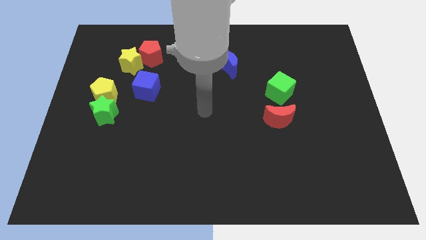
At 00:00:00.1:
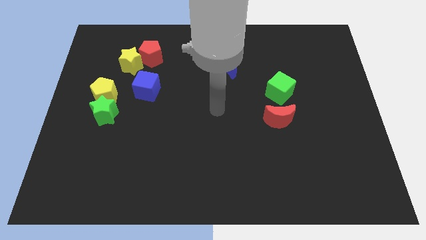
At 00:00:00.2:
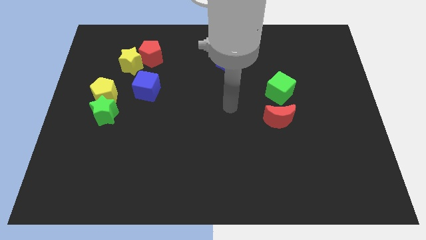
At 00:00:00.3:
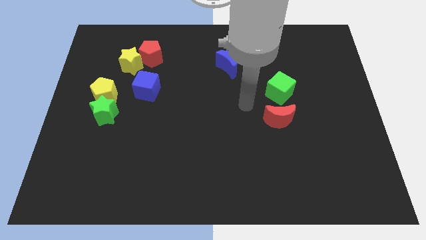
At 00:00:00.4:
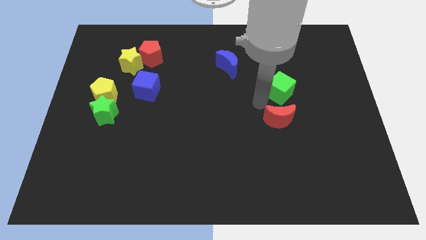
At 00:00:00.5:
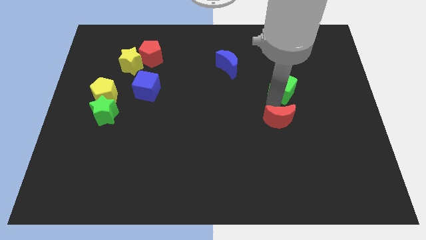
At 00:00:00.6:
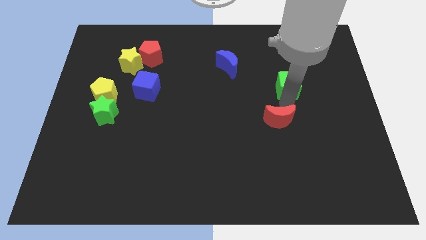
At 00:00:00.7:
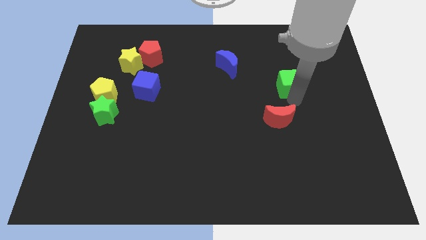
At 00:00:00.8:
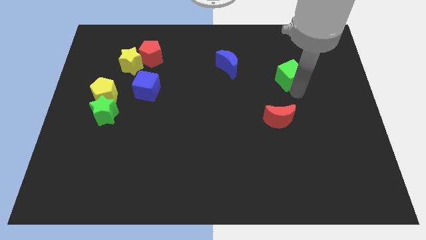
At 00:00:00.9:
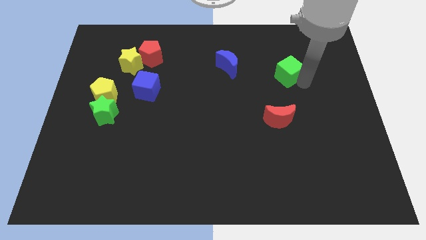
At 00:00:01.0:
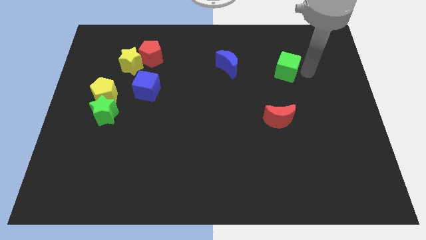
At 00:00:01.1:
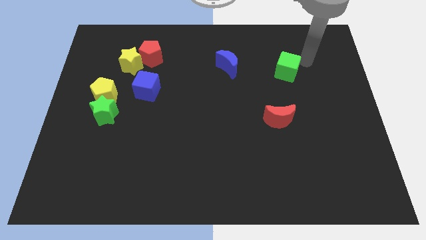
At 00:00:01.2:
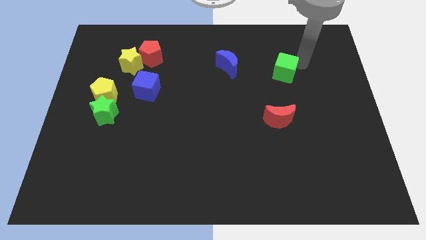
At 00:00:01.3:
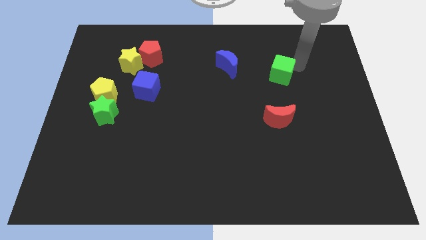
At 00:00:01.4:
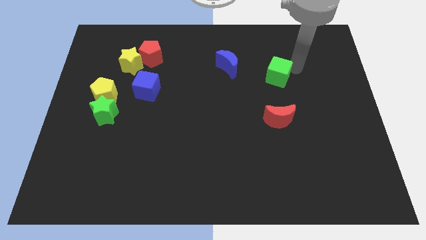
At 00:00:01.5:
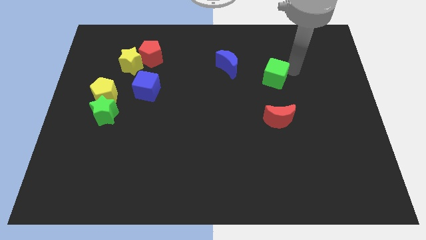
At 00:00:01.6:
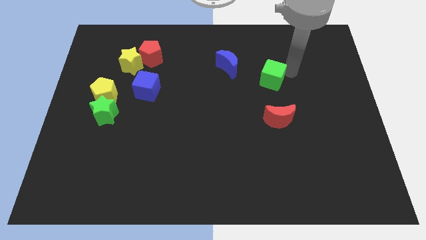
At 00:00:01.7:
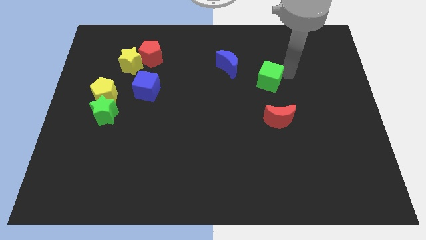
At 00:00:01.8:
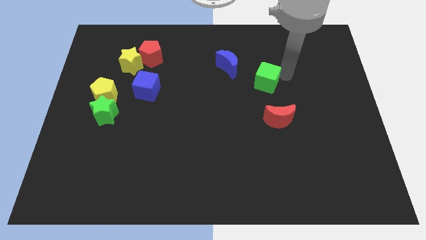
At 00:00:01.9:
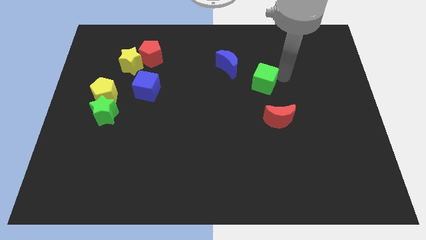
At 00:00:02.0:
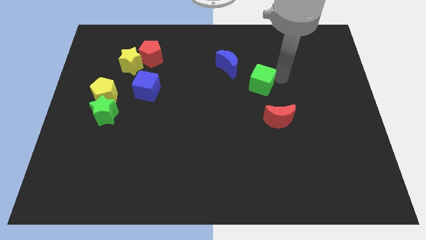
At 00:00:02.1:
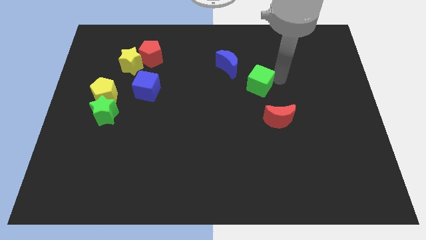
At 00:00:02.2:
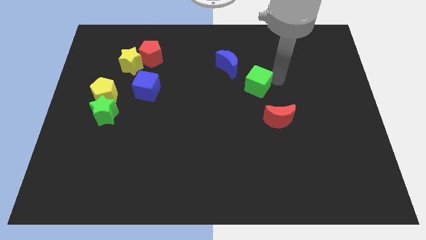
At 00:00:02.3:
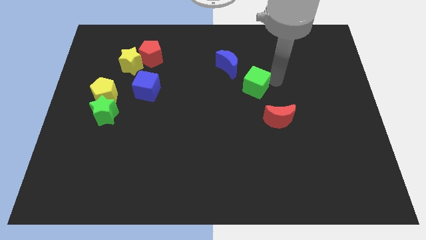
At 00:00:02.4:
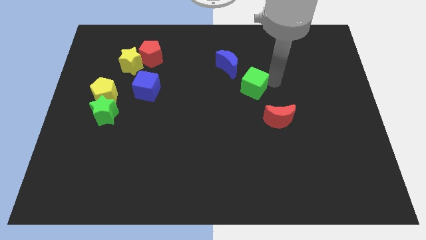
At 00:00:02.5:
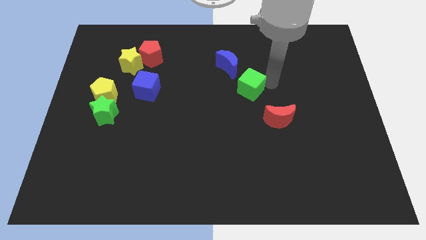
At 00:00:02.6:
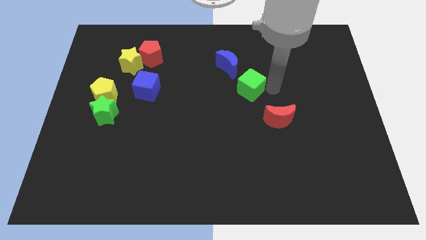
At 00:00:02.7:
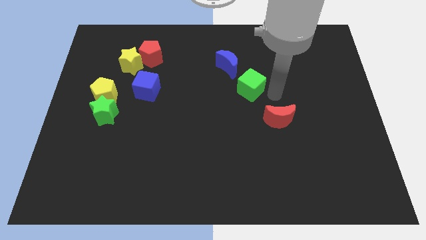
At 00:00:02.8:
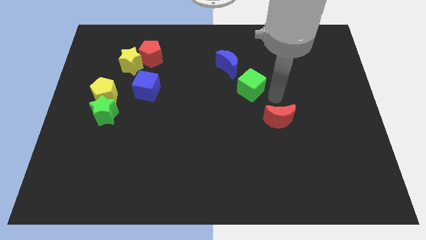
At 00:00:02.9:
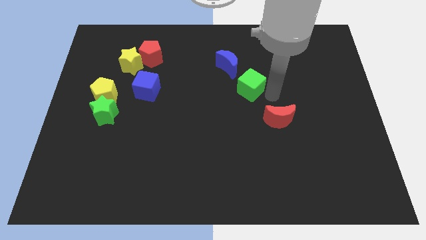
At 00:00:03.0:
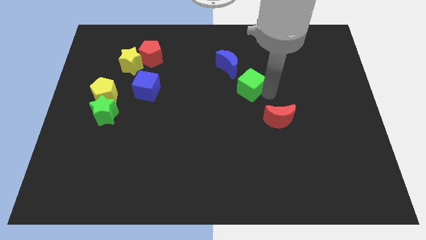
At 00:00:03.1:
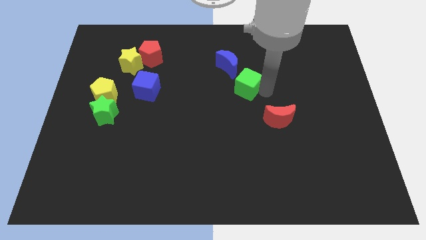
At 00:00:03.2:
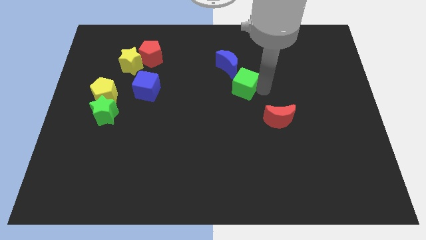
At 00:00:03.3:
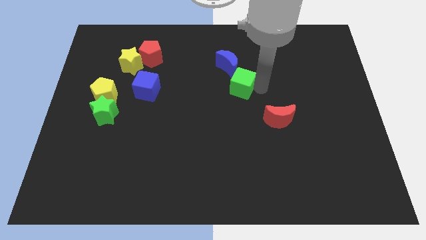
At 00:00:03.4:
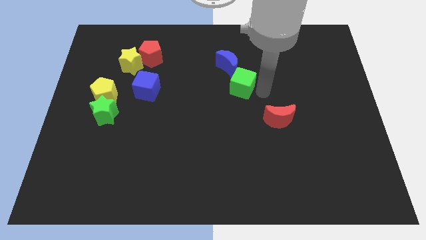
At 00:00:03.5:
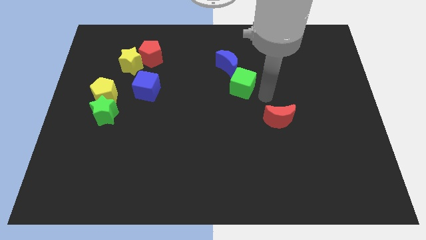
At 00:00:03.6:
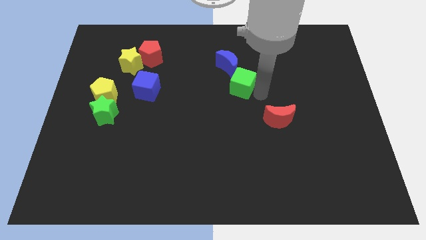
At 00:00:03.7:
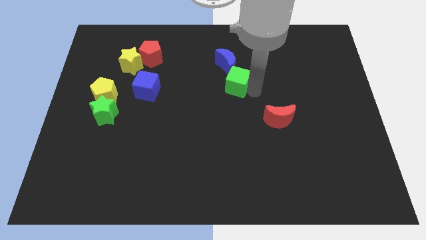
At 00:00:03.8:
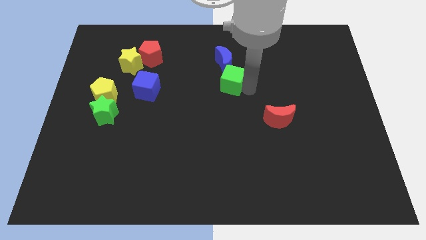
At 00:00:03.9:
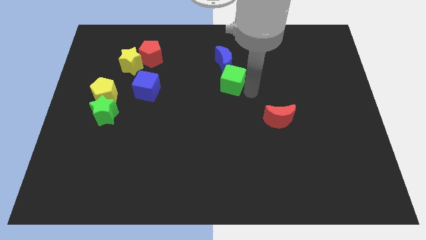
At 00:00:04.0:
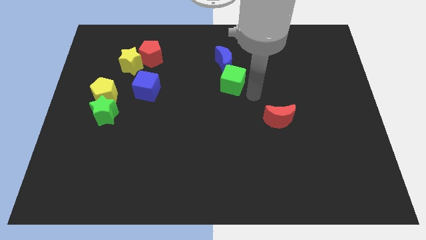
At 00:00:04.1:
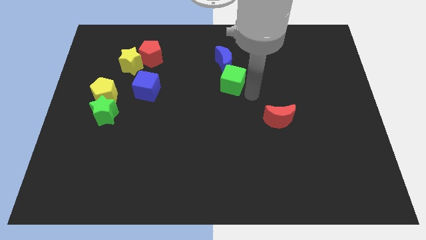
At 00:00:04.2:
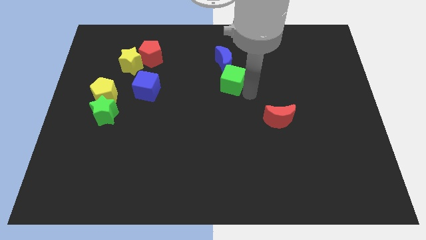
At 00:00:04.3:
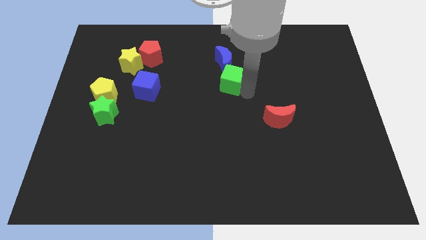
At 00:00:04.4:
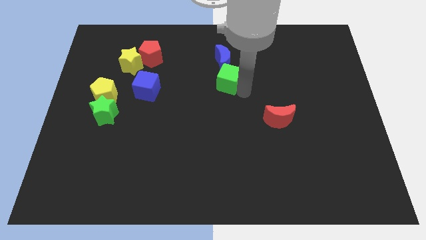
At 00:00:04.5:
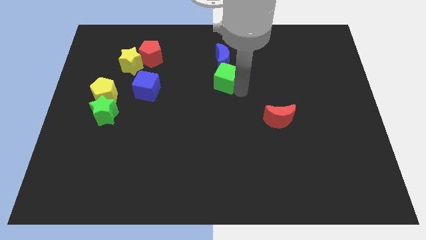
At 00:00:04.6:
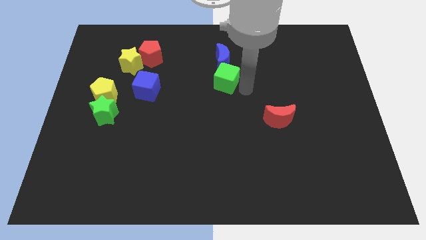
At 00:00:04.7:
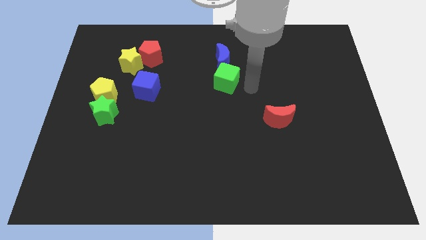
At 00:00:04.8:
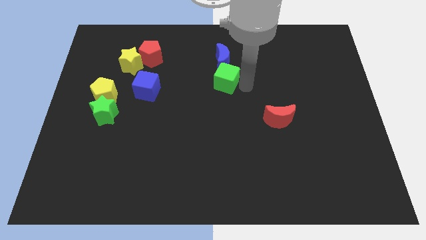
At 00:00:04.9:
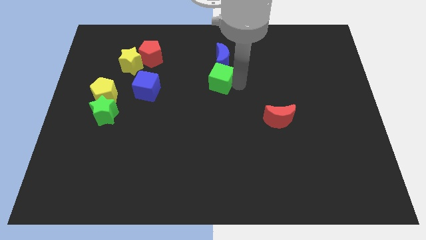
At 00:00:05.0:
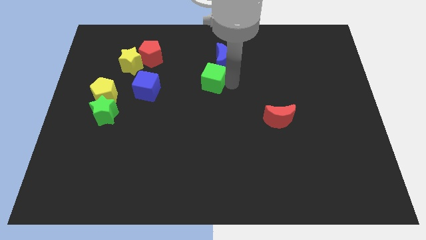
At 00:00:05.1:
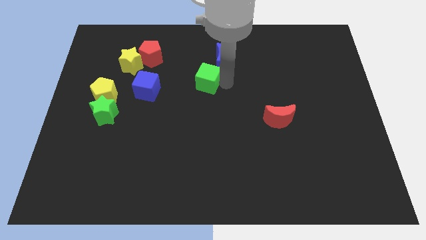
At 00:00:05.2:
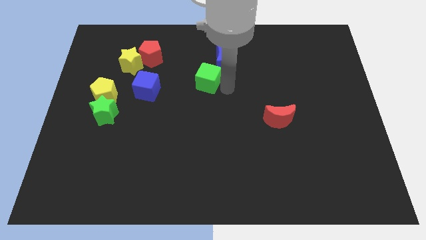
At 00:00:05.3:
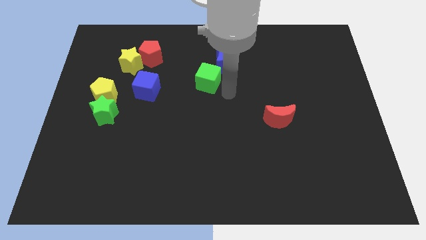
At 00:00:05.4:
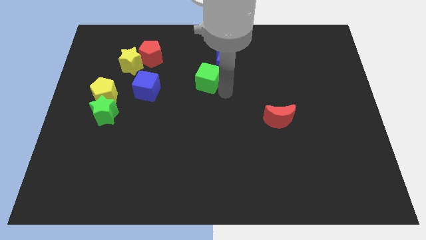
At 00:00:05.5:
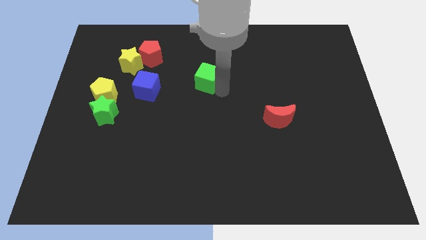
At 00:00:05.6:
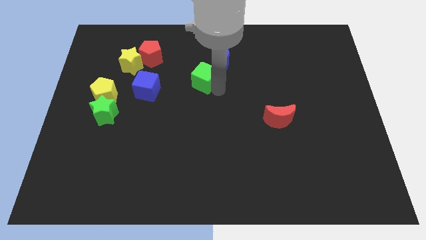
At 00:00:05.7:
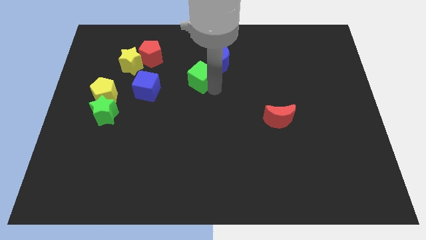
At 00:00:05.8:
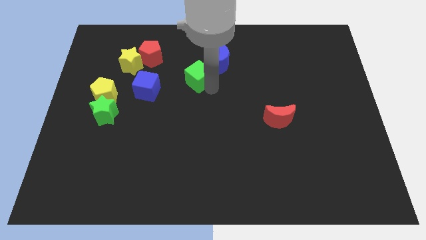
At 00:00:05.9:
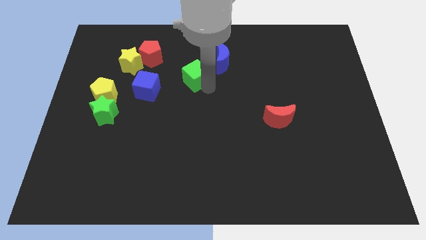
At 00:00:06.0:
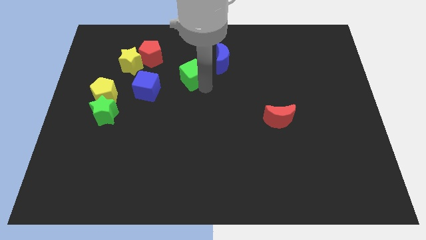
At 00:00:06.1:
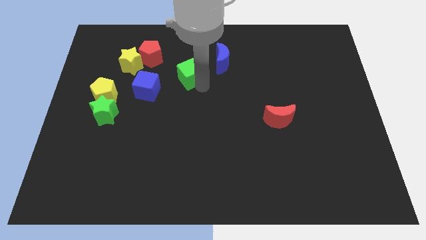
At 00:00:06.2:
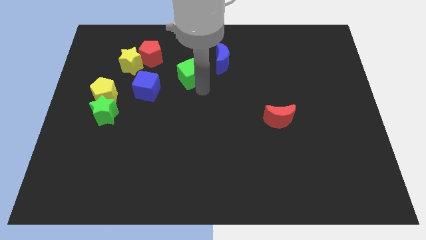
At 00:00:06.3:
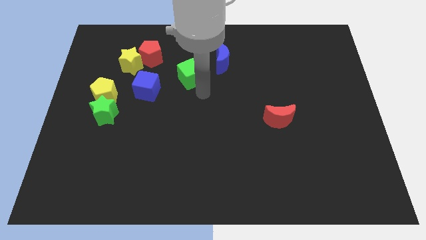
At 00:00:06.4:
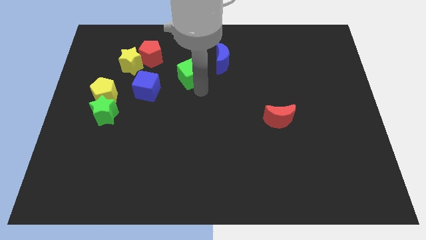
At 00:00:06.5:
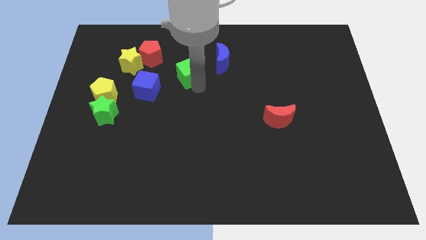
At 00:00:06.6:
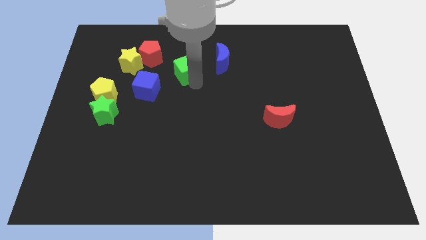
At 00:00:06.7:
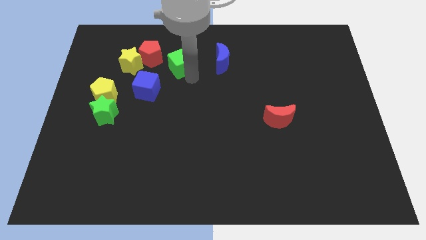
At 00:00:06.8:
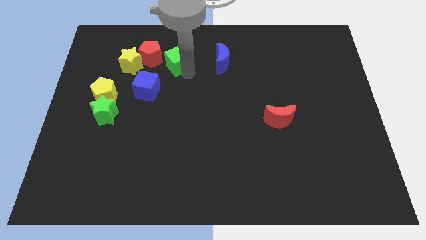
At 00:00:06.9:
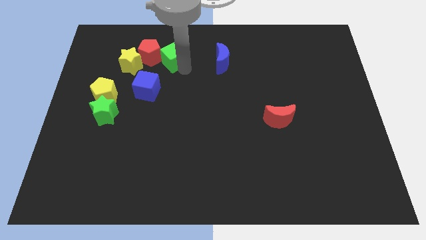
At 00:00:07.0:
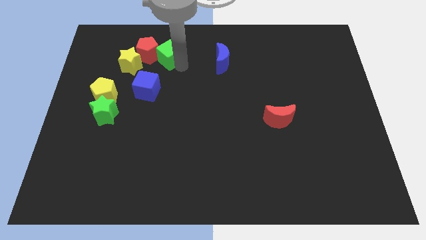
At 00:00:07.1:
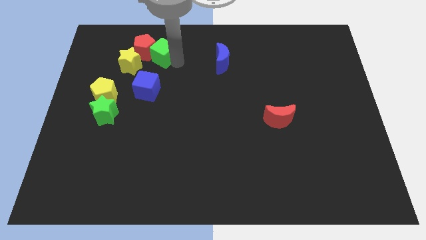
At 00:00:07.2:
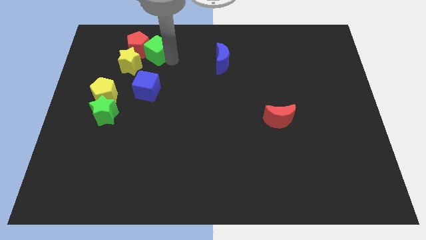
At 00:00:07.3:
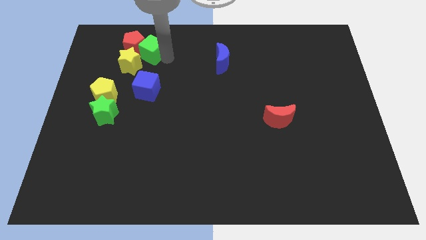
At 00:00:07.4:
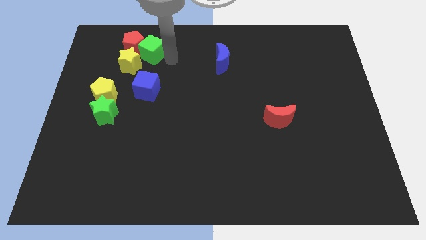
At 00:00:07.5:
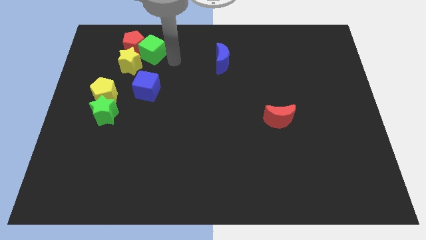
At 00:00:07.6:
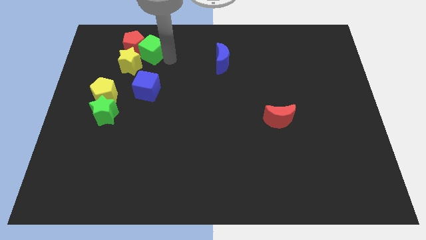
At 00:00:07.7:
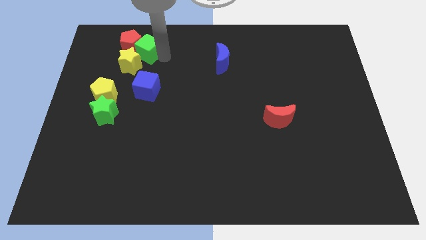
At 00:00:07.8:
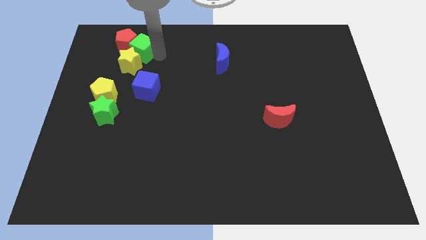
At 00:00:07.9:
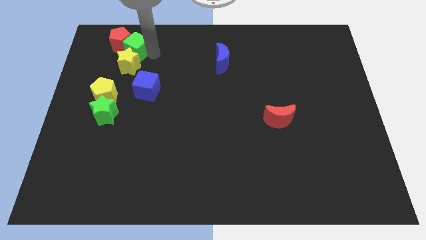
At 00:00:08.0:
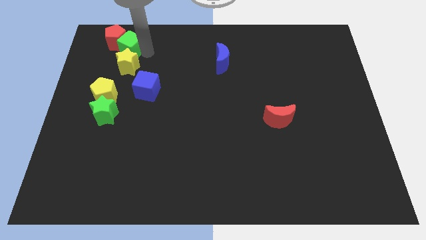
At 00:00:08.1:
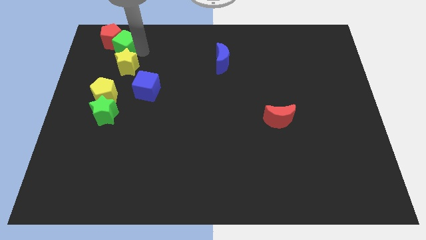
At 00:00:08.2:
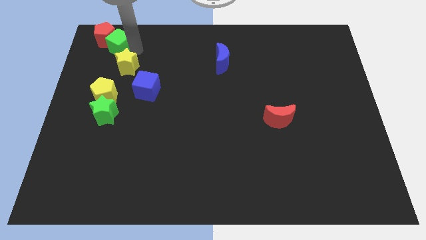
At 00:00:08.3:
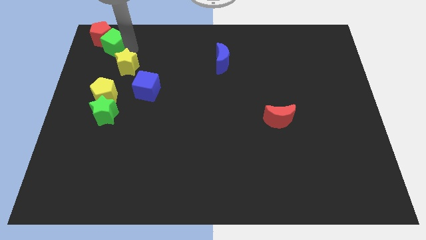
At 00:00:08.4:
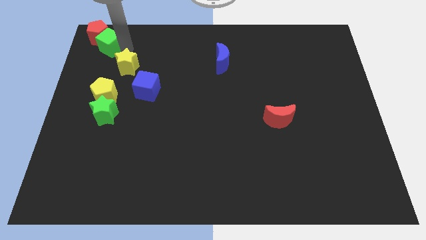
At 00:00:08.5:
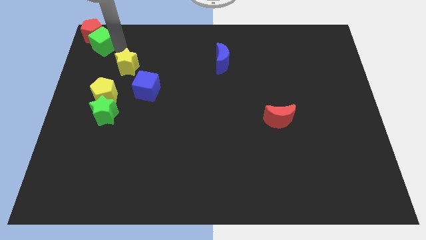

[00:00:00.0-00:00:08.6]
slide the green cube to the top left corner
